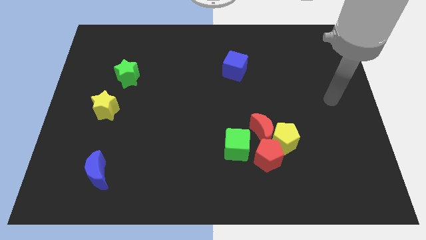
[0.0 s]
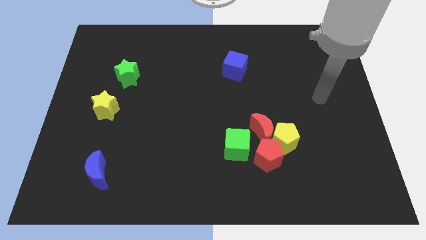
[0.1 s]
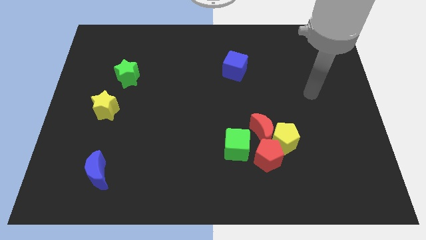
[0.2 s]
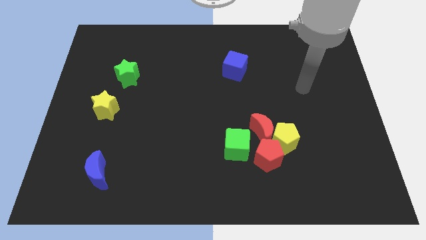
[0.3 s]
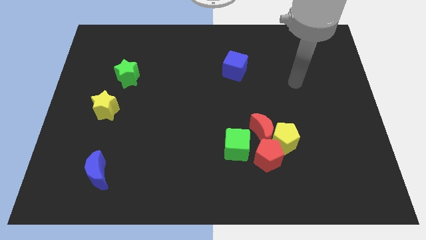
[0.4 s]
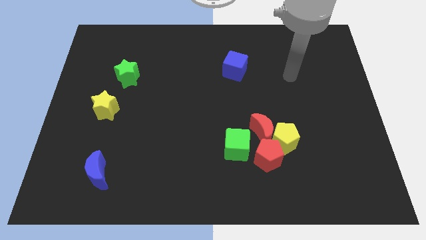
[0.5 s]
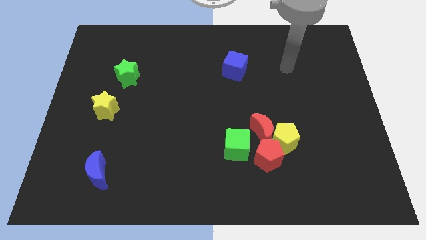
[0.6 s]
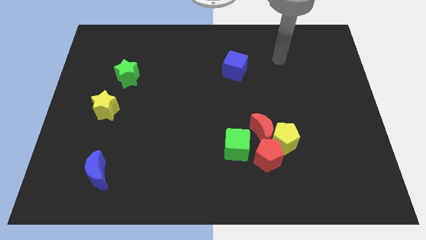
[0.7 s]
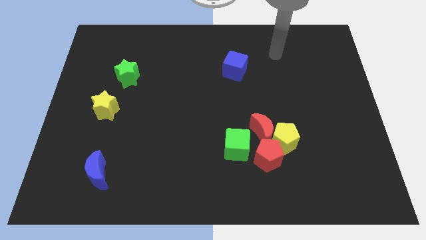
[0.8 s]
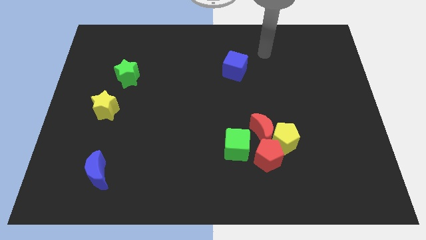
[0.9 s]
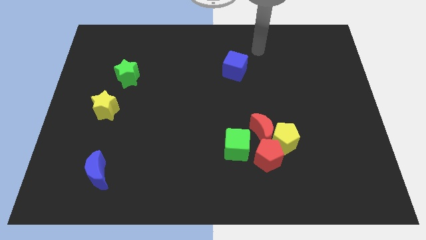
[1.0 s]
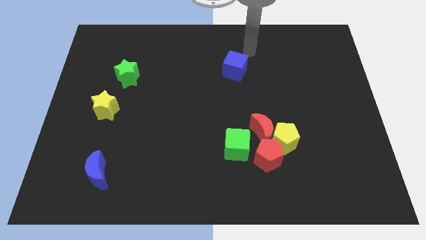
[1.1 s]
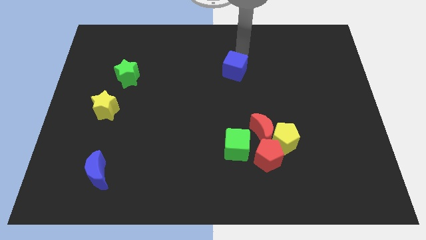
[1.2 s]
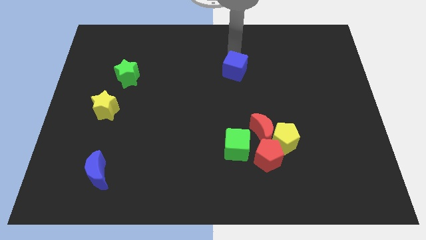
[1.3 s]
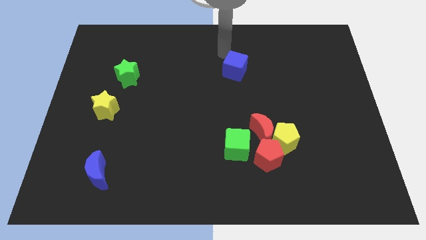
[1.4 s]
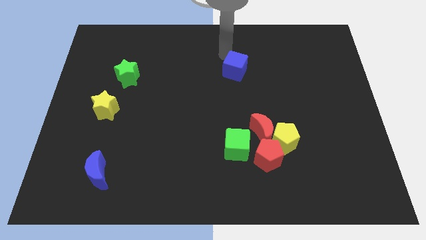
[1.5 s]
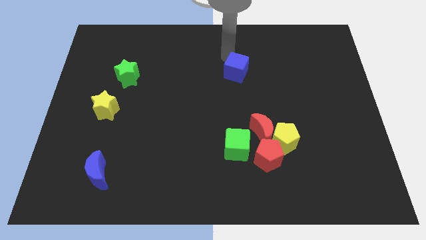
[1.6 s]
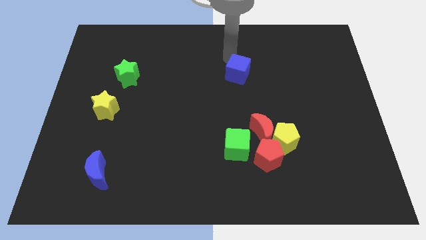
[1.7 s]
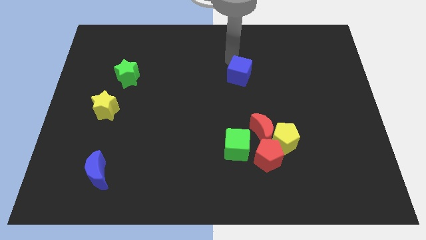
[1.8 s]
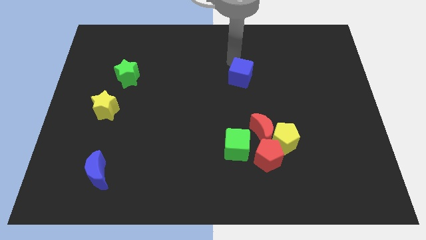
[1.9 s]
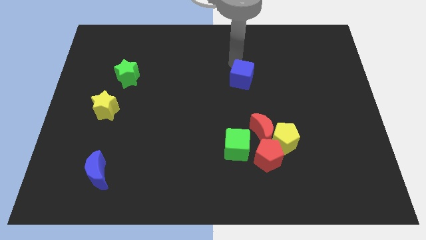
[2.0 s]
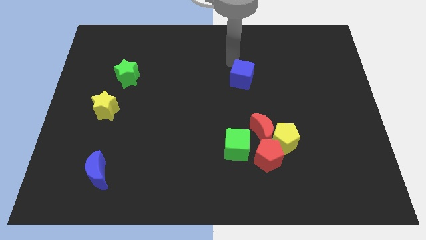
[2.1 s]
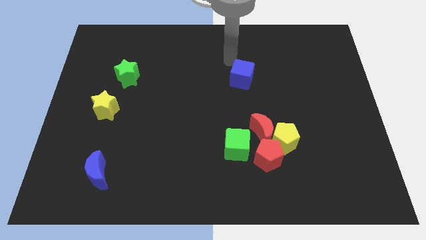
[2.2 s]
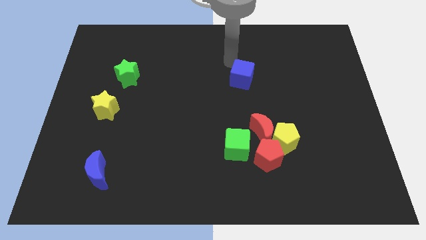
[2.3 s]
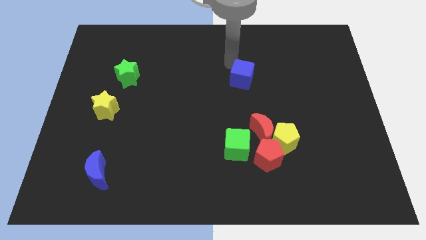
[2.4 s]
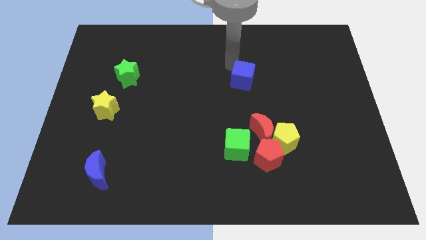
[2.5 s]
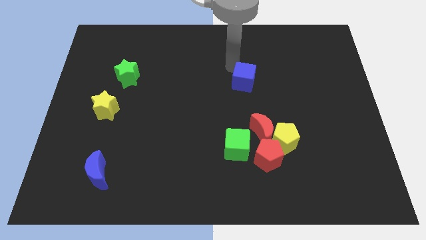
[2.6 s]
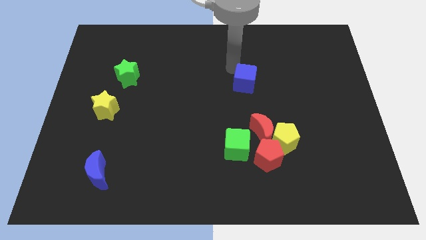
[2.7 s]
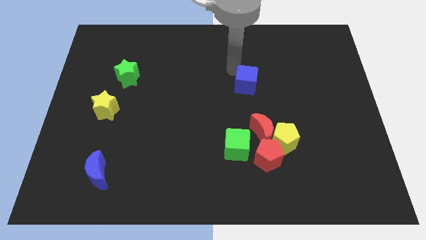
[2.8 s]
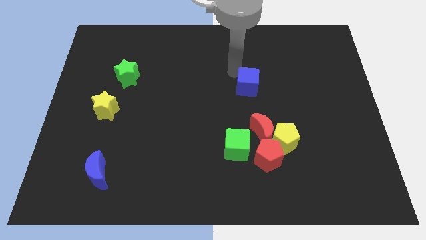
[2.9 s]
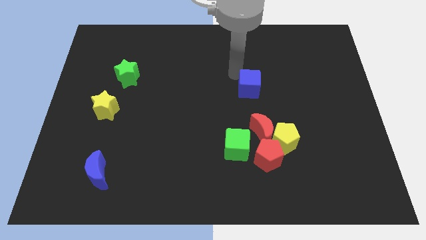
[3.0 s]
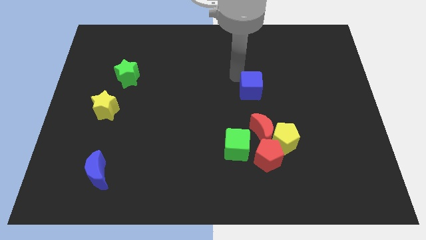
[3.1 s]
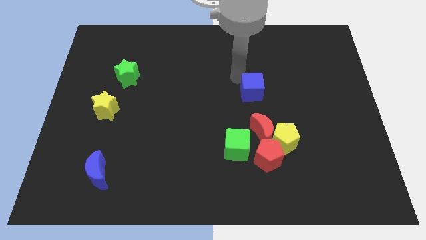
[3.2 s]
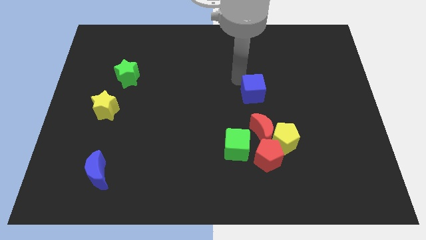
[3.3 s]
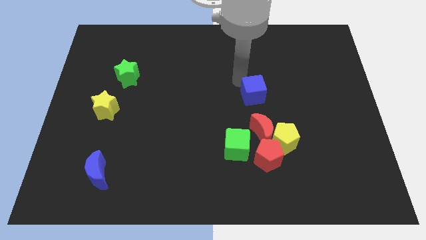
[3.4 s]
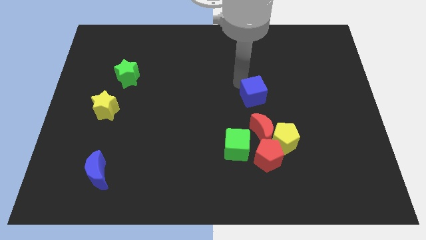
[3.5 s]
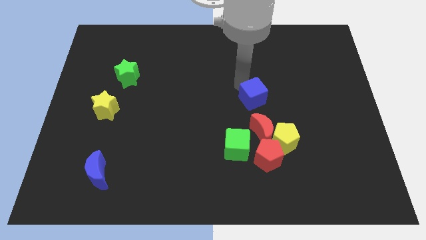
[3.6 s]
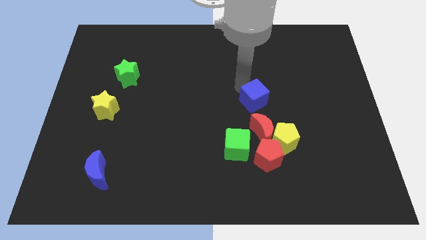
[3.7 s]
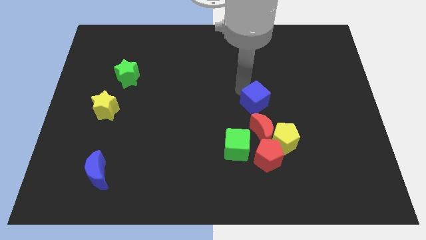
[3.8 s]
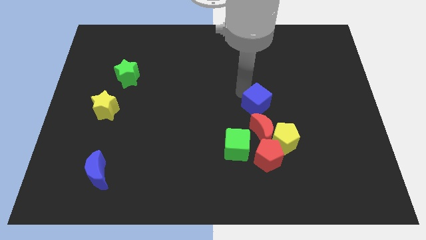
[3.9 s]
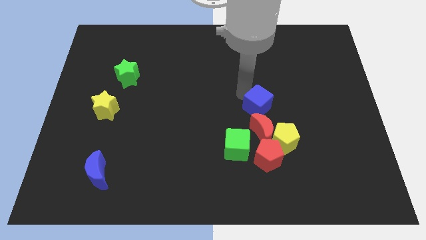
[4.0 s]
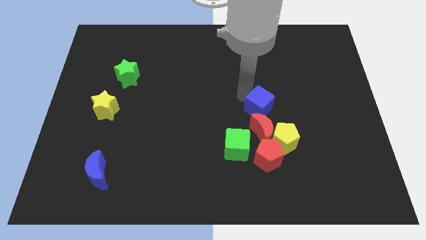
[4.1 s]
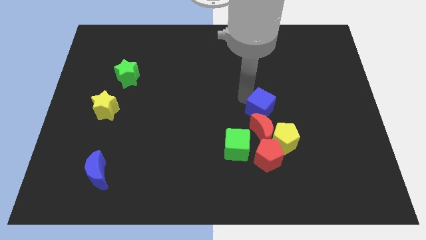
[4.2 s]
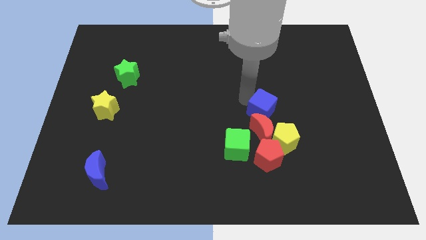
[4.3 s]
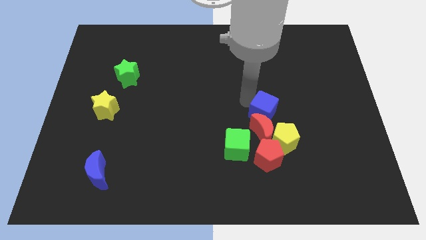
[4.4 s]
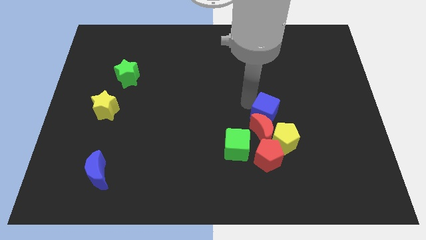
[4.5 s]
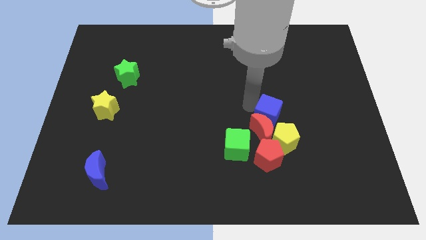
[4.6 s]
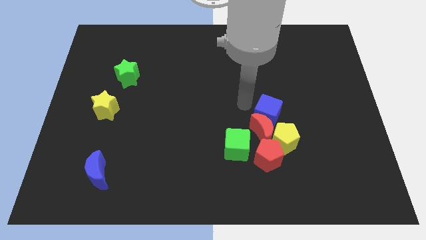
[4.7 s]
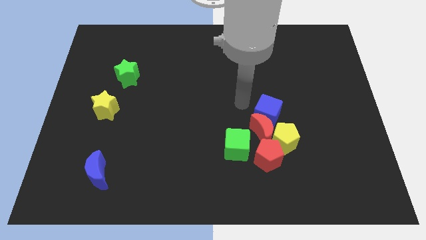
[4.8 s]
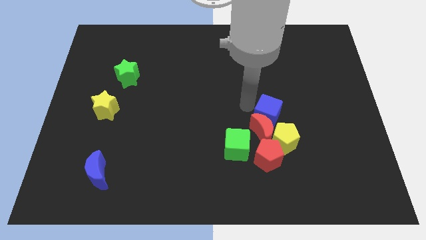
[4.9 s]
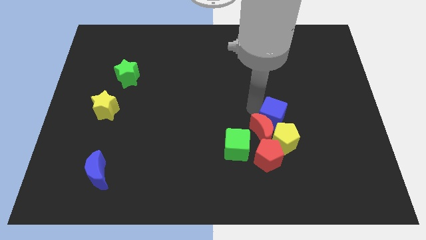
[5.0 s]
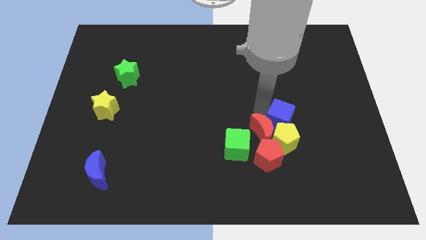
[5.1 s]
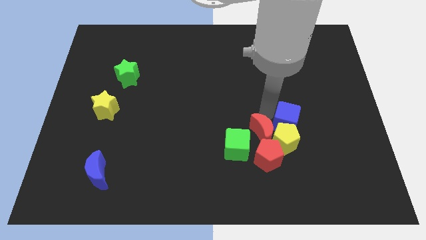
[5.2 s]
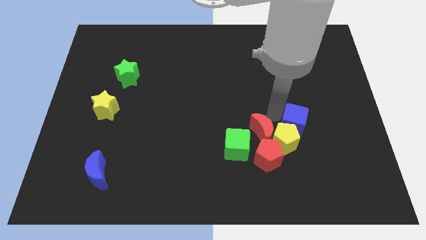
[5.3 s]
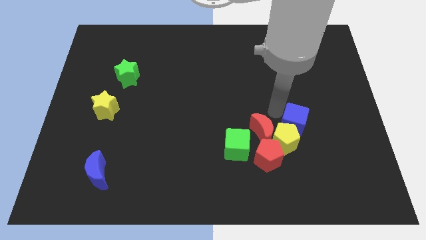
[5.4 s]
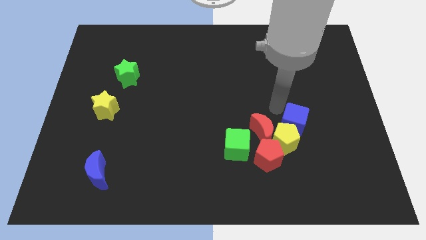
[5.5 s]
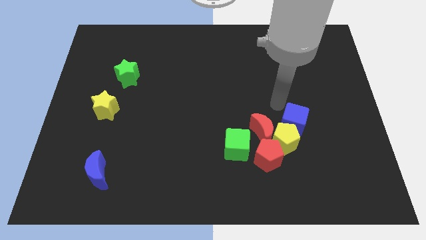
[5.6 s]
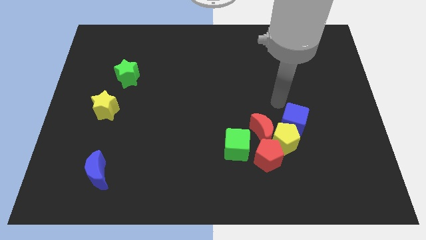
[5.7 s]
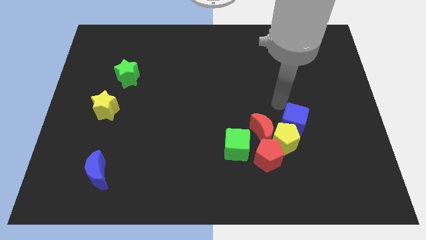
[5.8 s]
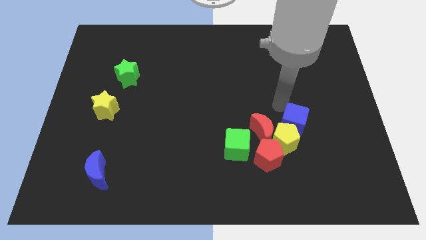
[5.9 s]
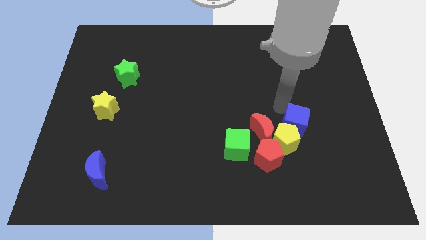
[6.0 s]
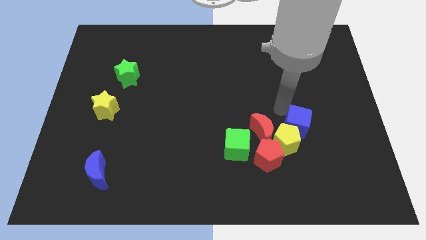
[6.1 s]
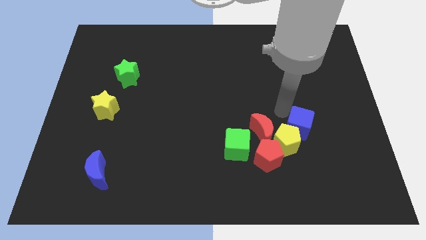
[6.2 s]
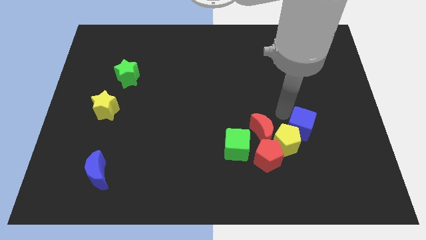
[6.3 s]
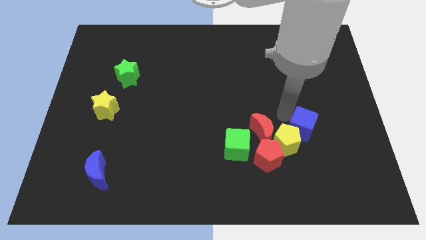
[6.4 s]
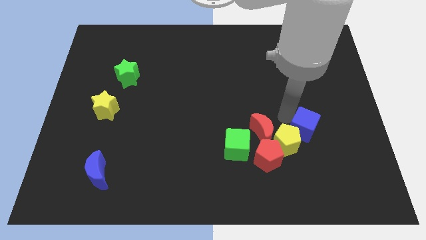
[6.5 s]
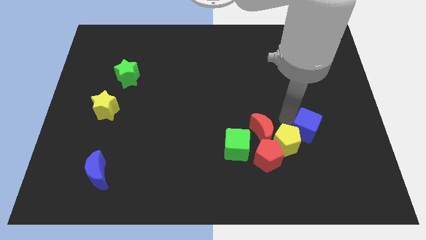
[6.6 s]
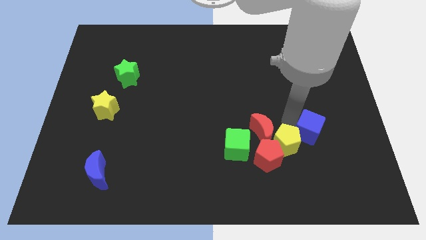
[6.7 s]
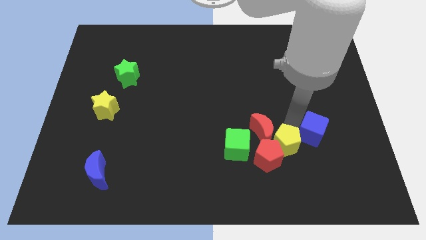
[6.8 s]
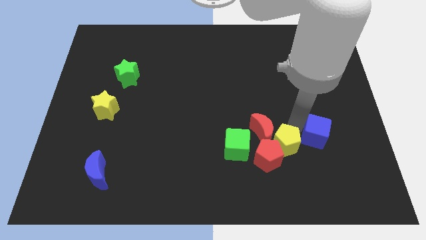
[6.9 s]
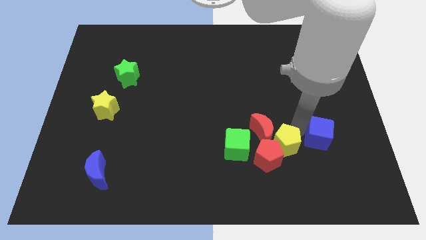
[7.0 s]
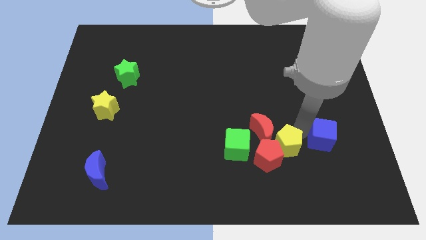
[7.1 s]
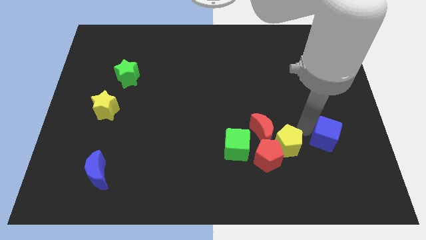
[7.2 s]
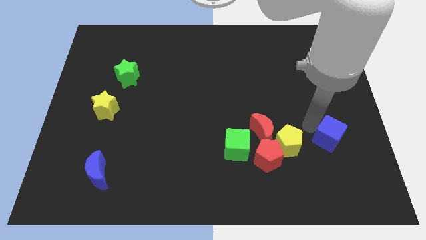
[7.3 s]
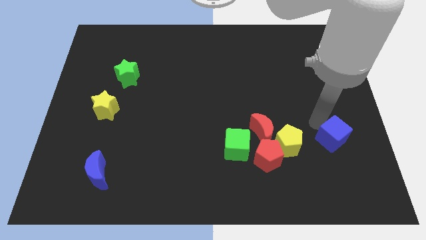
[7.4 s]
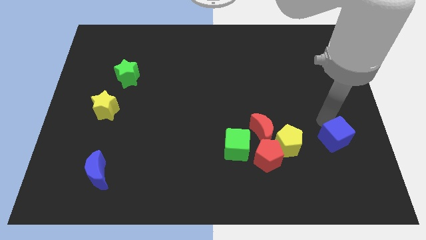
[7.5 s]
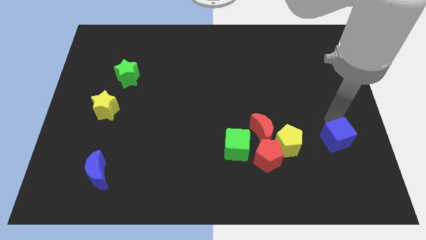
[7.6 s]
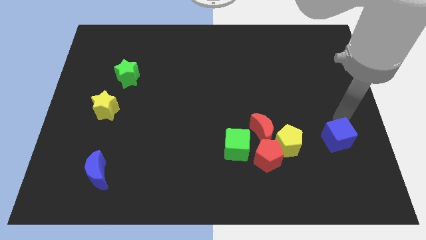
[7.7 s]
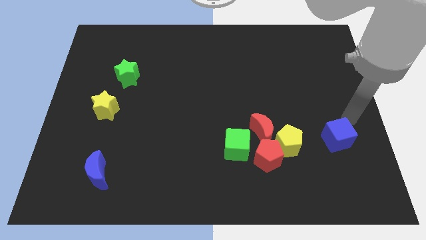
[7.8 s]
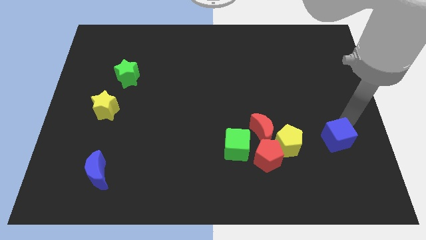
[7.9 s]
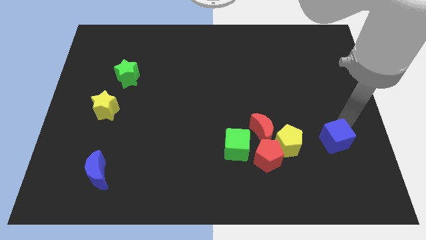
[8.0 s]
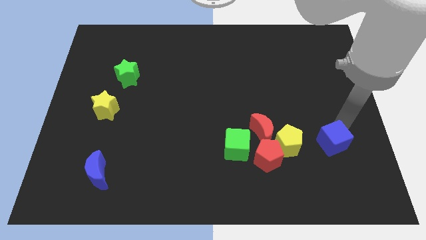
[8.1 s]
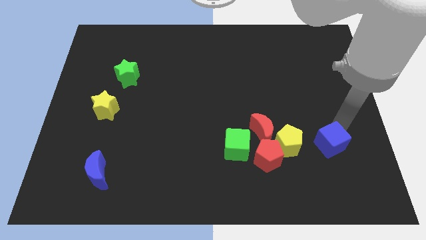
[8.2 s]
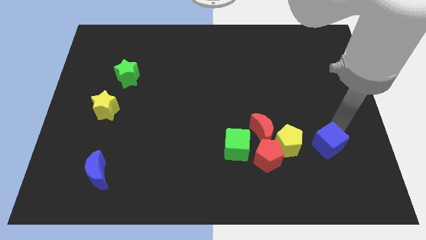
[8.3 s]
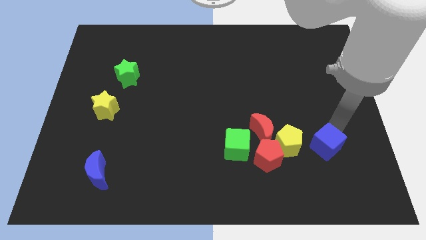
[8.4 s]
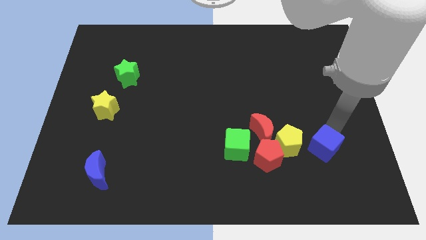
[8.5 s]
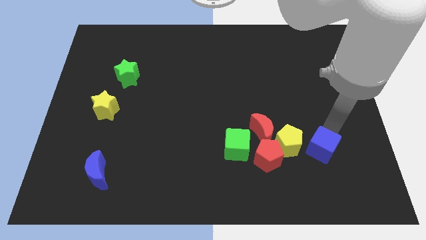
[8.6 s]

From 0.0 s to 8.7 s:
slide the blue cube to the bottom right of the yellow pentagon
